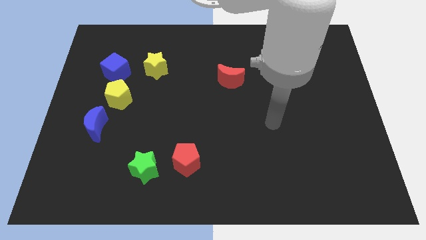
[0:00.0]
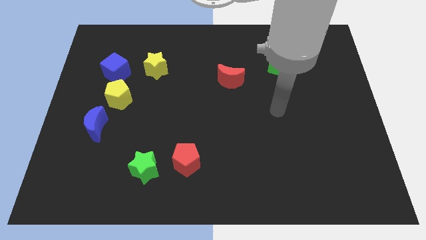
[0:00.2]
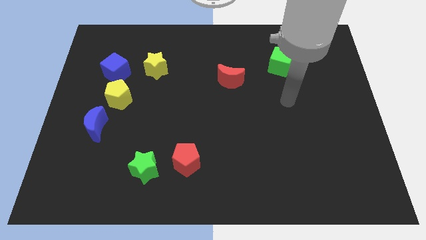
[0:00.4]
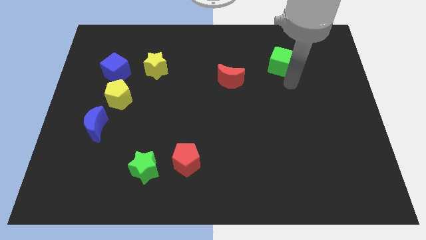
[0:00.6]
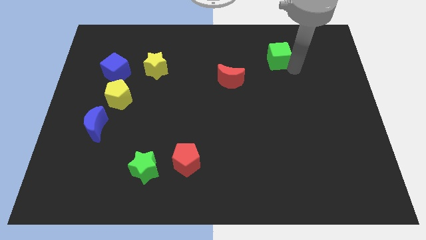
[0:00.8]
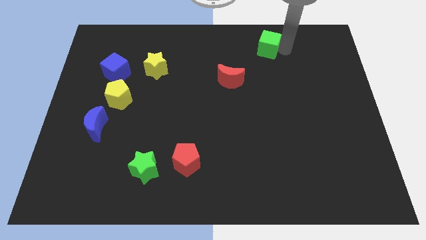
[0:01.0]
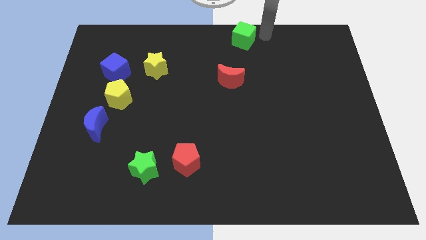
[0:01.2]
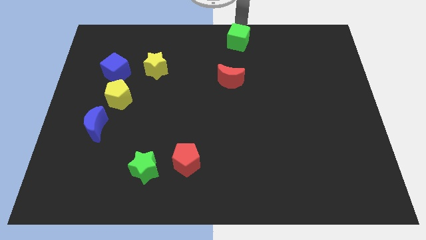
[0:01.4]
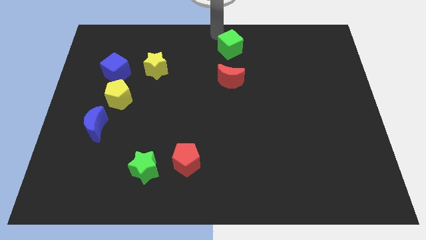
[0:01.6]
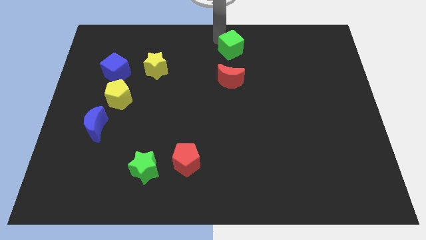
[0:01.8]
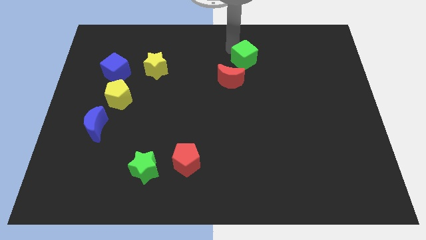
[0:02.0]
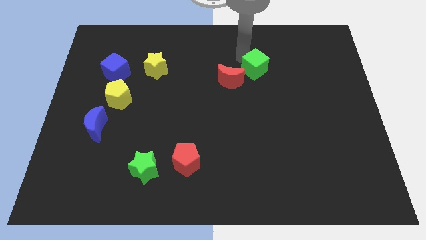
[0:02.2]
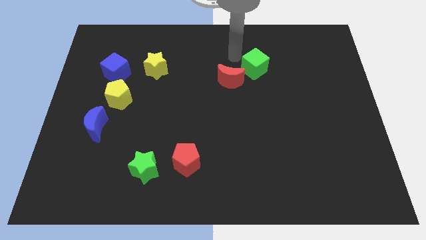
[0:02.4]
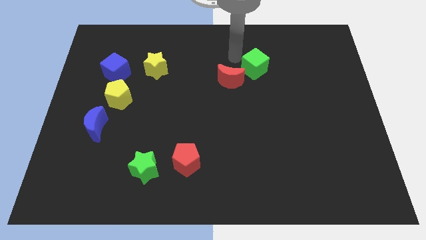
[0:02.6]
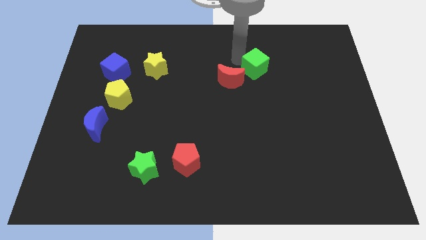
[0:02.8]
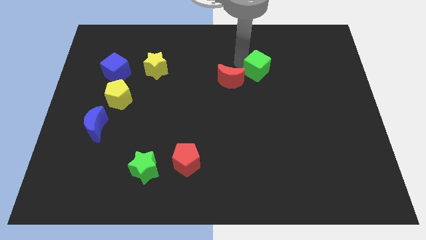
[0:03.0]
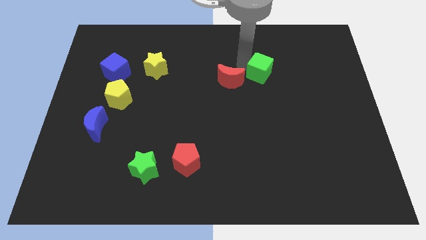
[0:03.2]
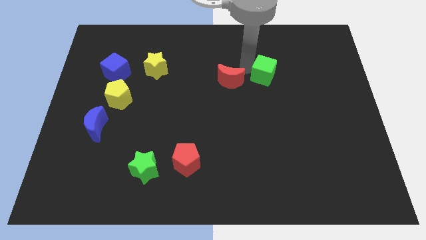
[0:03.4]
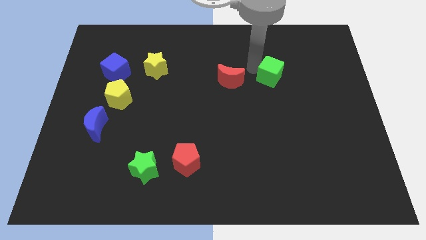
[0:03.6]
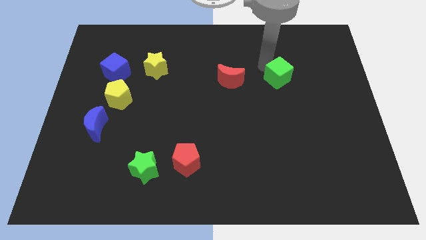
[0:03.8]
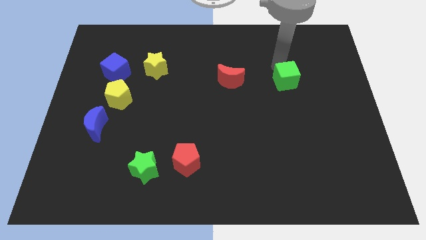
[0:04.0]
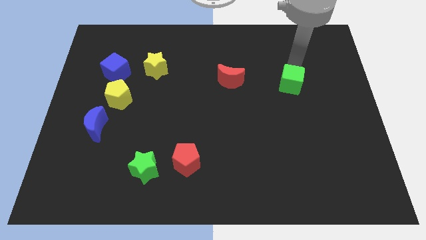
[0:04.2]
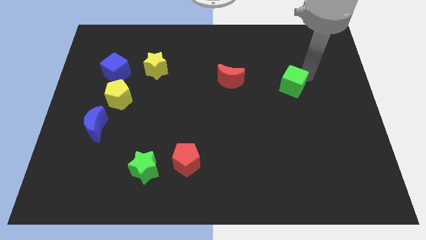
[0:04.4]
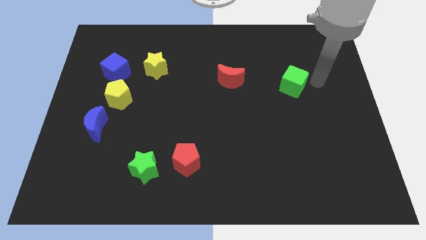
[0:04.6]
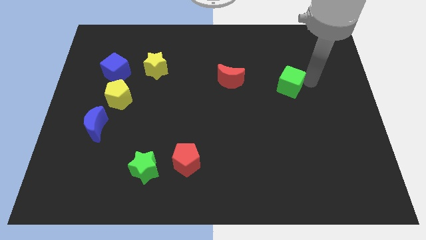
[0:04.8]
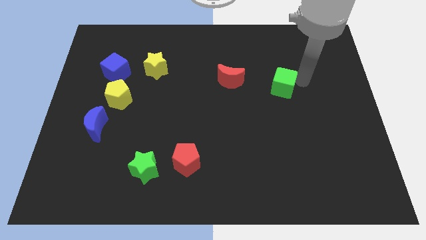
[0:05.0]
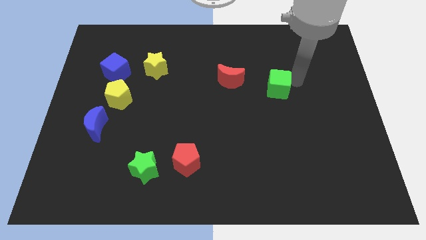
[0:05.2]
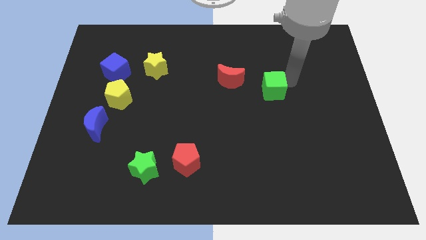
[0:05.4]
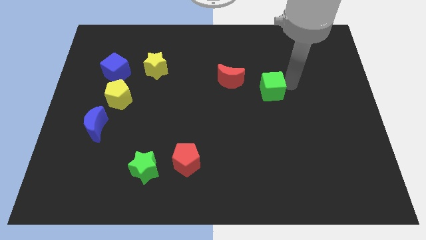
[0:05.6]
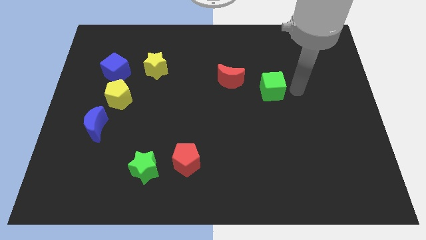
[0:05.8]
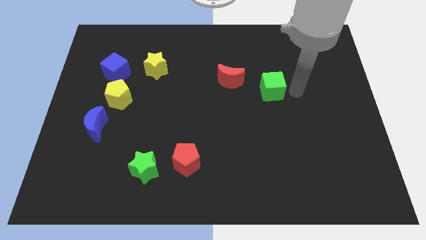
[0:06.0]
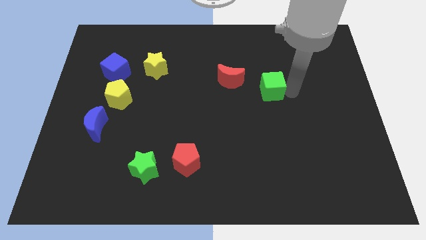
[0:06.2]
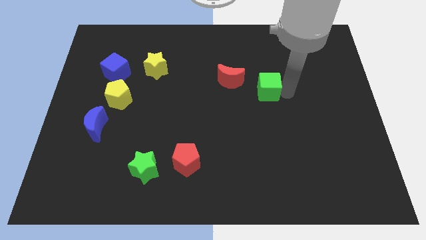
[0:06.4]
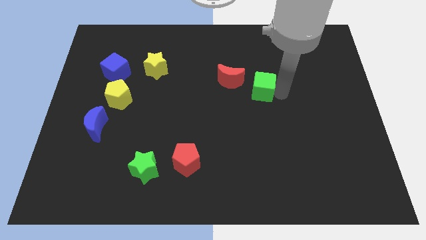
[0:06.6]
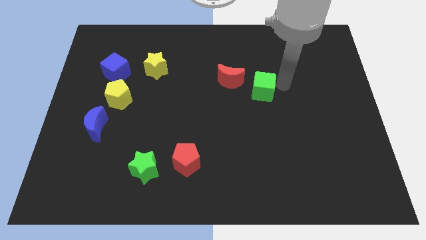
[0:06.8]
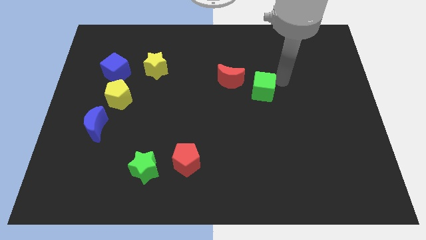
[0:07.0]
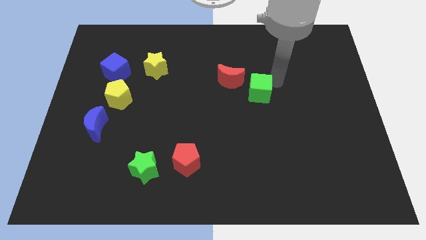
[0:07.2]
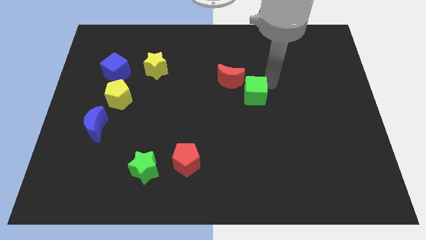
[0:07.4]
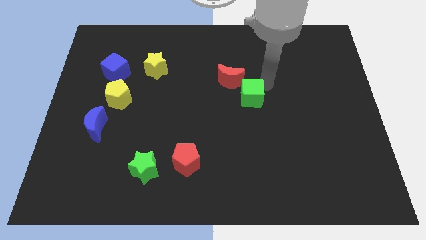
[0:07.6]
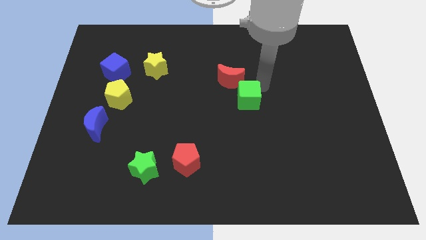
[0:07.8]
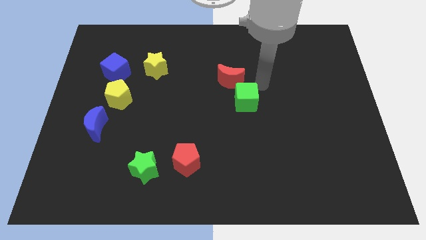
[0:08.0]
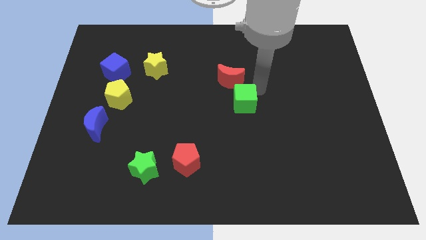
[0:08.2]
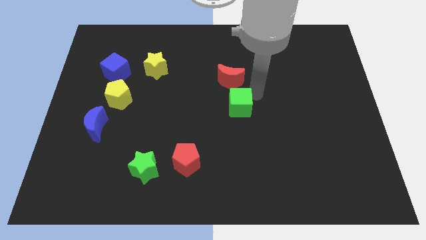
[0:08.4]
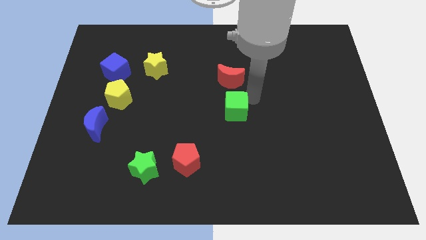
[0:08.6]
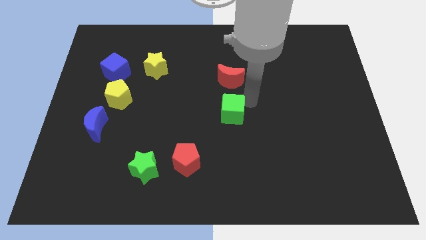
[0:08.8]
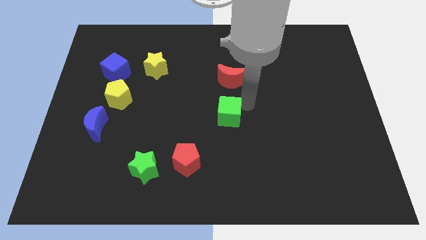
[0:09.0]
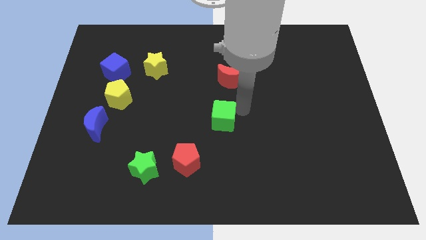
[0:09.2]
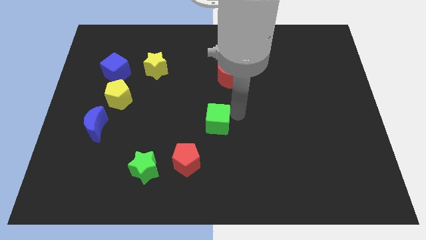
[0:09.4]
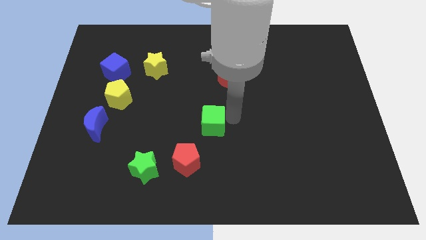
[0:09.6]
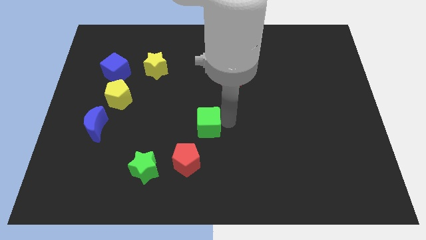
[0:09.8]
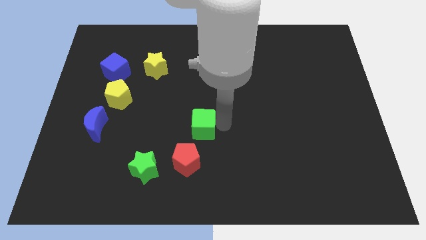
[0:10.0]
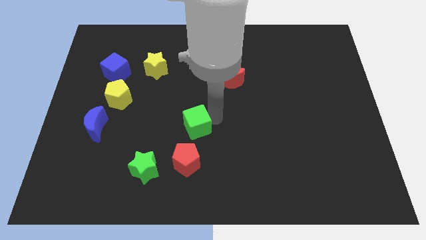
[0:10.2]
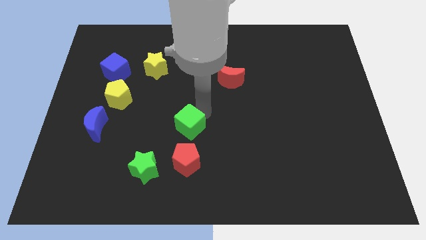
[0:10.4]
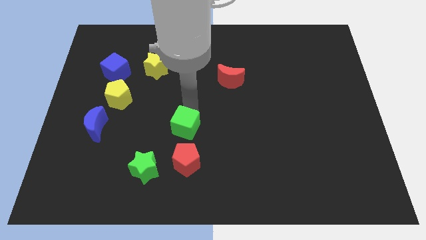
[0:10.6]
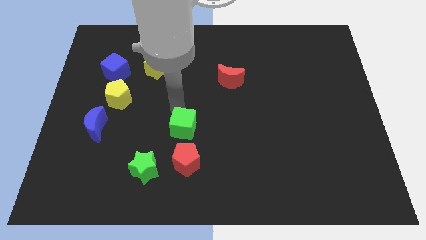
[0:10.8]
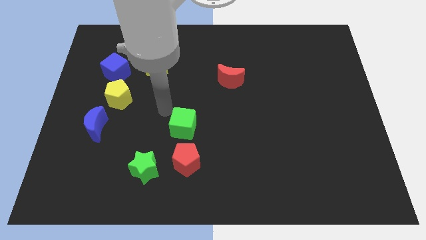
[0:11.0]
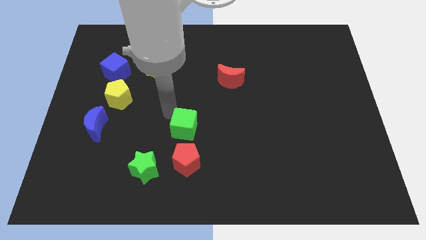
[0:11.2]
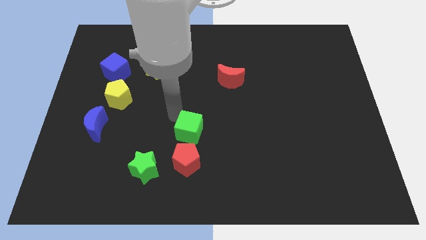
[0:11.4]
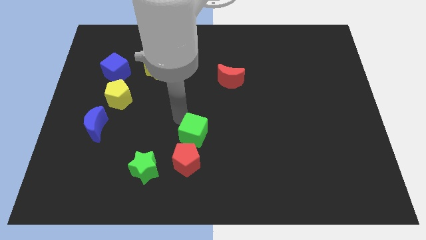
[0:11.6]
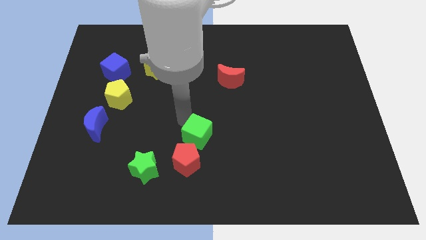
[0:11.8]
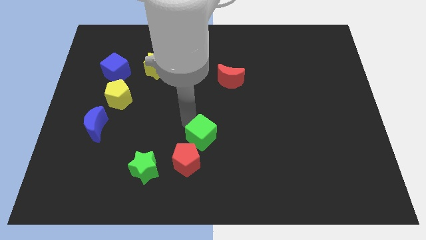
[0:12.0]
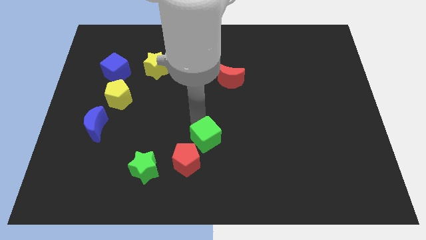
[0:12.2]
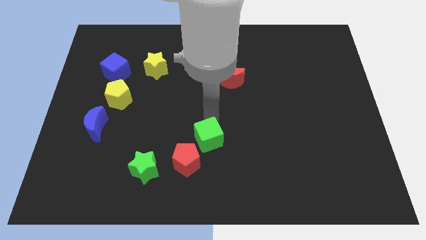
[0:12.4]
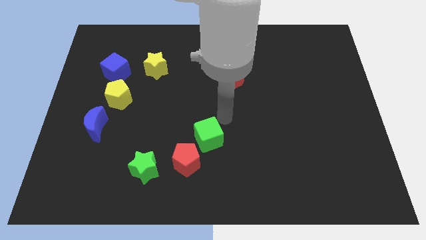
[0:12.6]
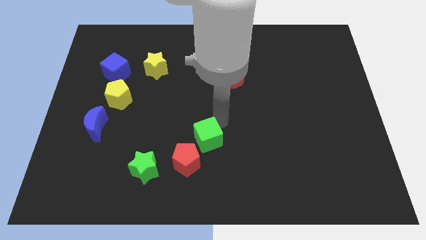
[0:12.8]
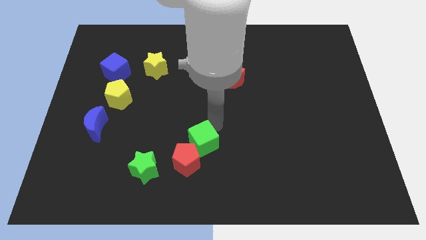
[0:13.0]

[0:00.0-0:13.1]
put the green cube next to the red pentagon
